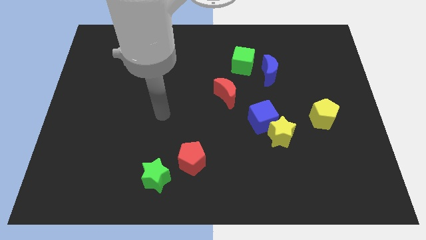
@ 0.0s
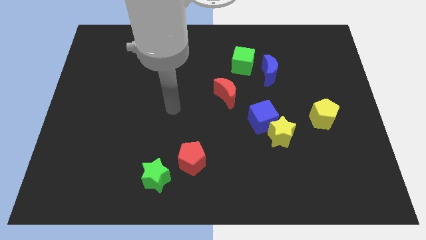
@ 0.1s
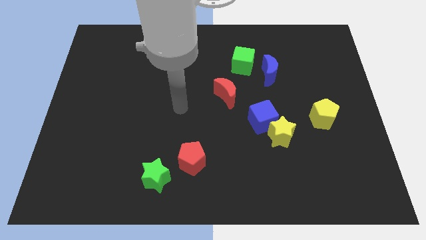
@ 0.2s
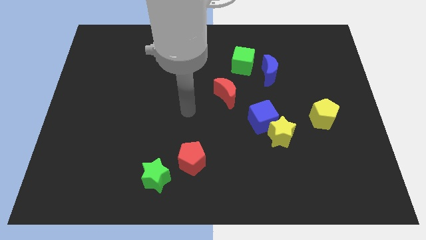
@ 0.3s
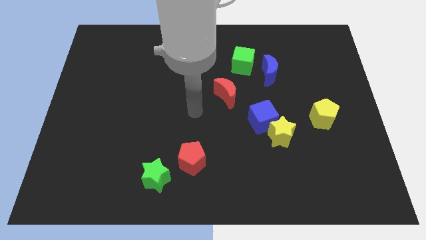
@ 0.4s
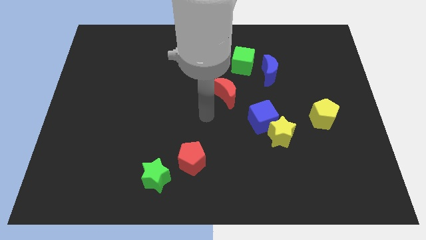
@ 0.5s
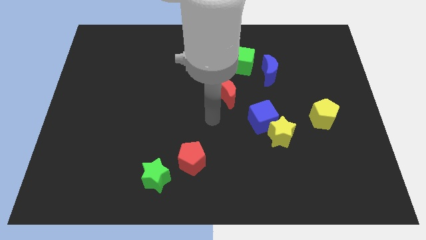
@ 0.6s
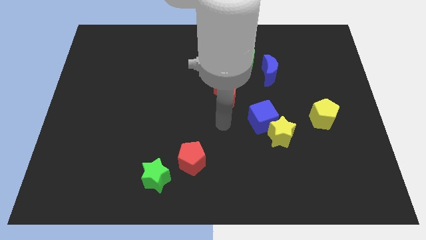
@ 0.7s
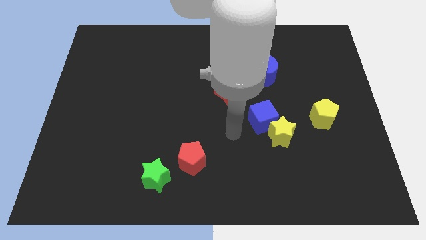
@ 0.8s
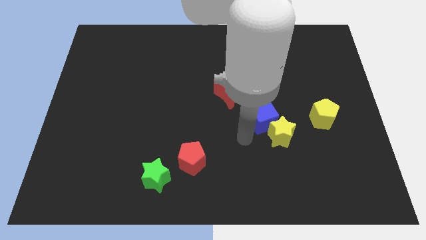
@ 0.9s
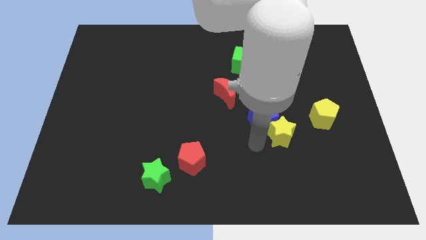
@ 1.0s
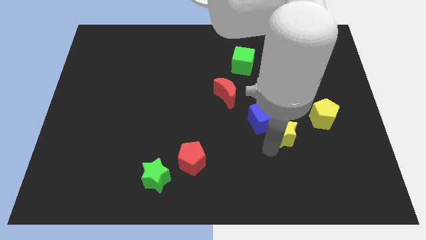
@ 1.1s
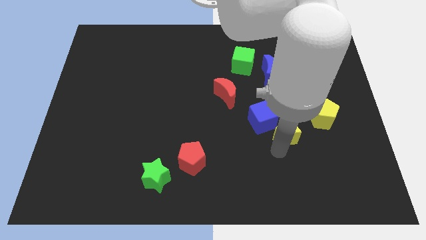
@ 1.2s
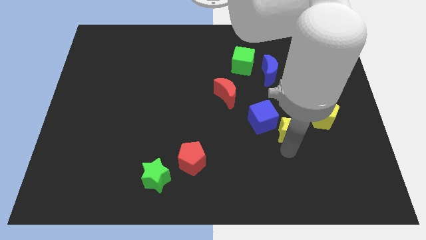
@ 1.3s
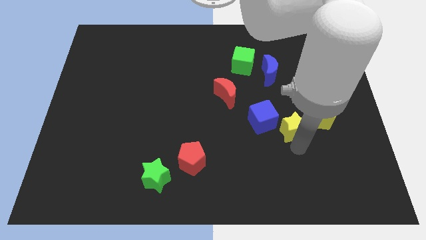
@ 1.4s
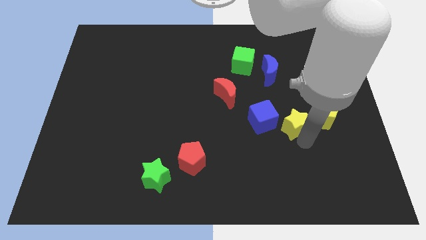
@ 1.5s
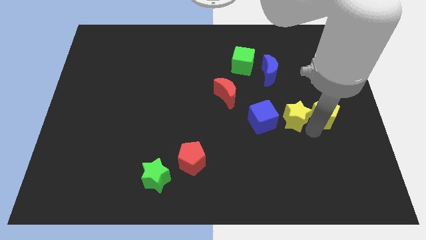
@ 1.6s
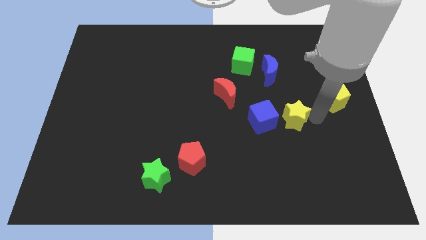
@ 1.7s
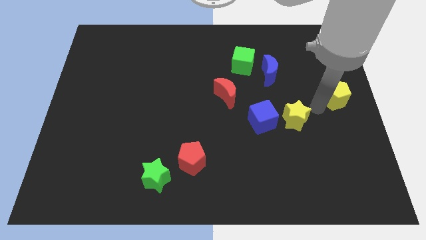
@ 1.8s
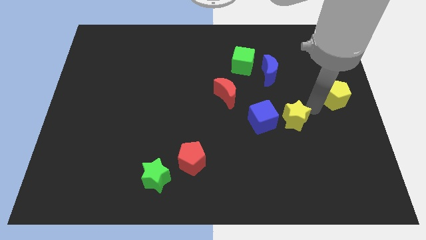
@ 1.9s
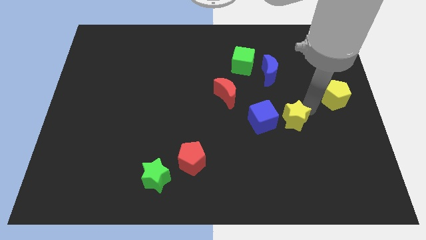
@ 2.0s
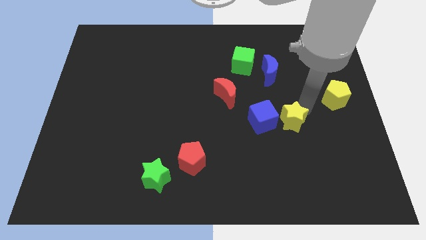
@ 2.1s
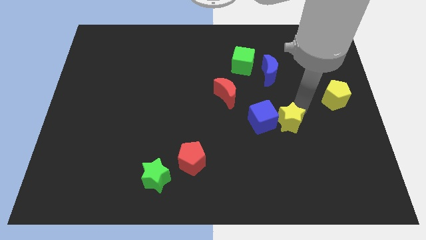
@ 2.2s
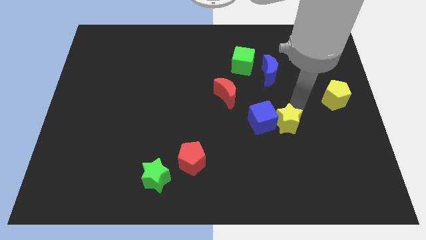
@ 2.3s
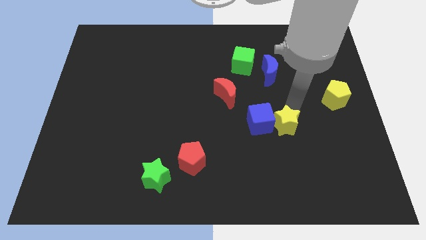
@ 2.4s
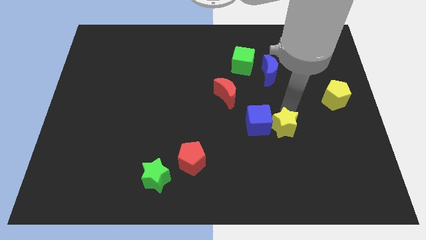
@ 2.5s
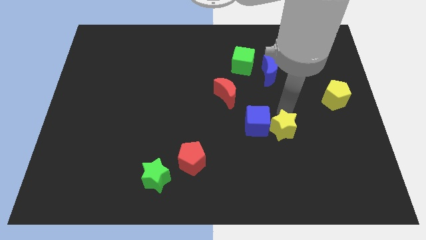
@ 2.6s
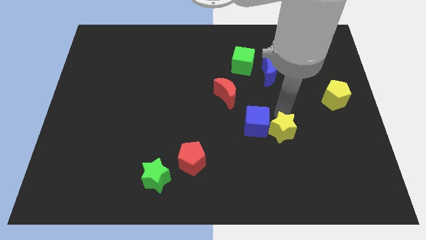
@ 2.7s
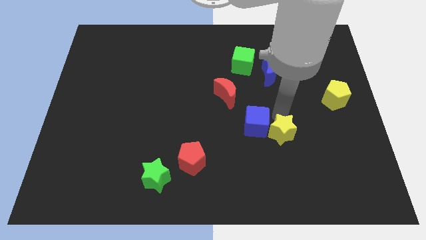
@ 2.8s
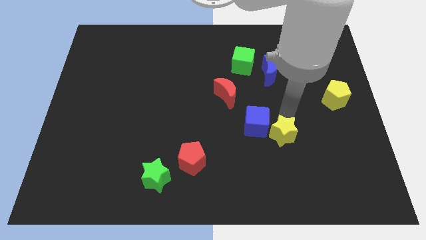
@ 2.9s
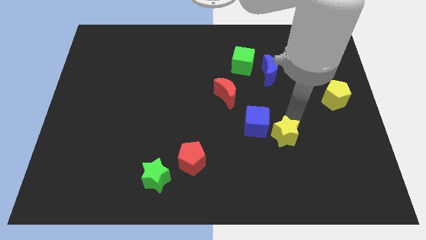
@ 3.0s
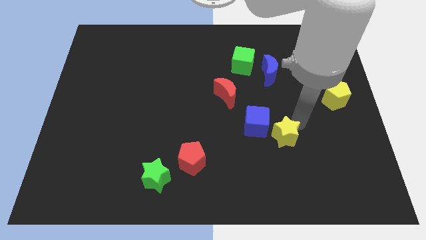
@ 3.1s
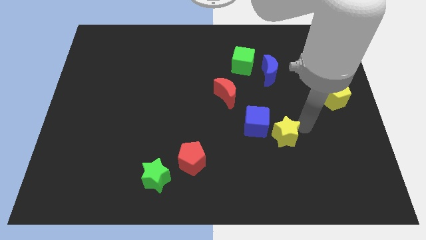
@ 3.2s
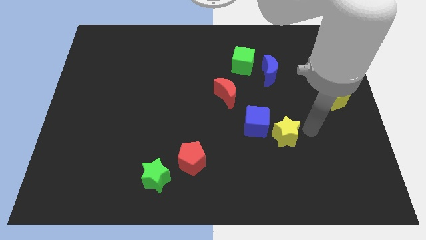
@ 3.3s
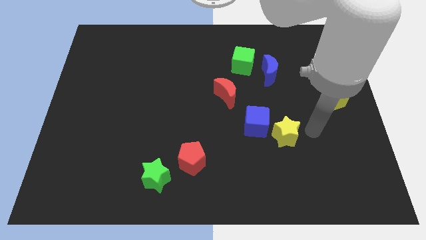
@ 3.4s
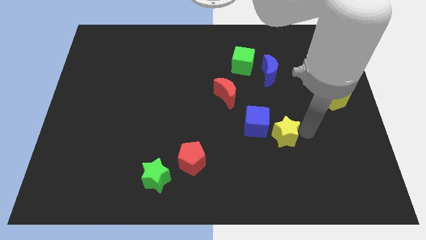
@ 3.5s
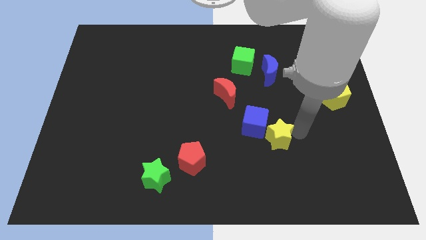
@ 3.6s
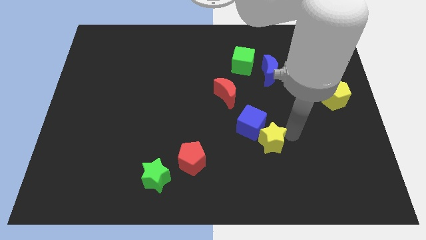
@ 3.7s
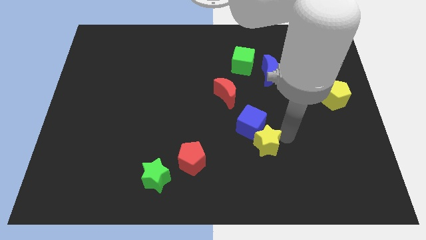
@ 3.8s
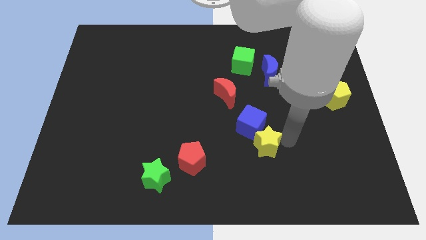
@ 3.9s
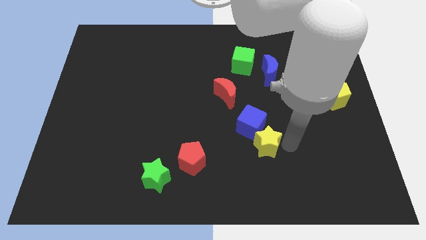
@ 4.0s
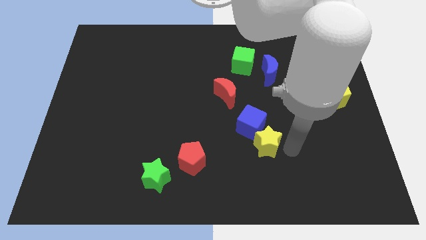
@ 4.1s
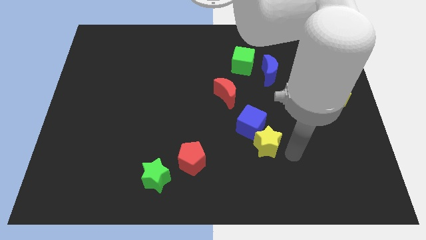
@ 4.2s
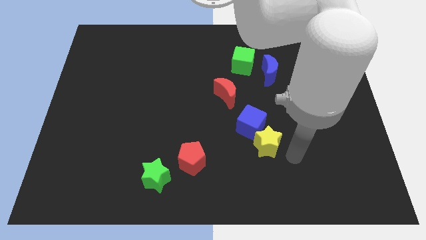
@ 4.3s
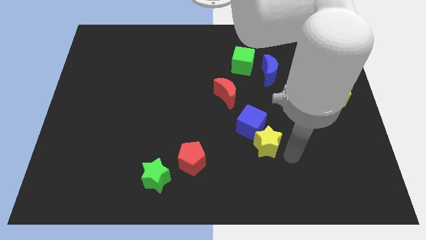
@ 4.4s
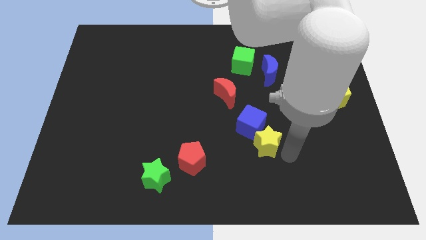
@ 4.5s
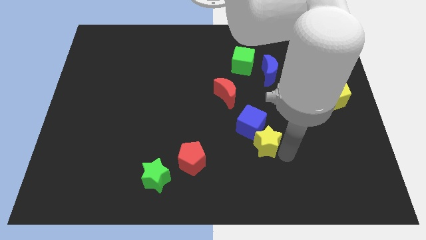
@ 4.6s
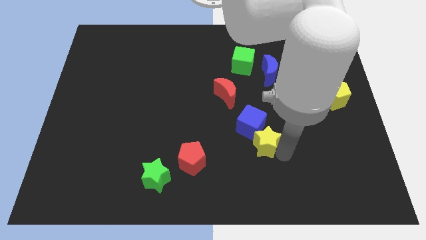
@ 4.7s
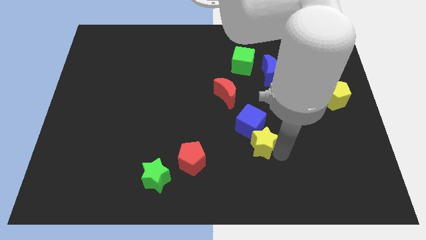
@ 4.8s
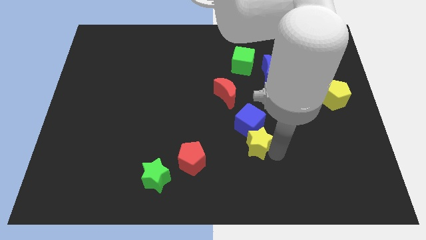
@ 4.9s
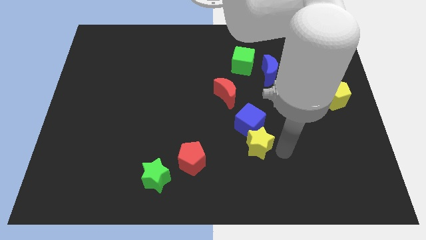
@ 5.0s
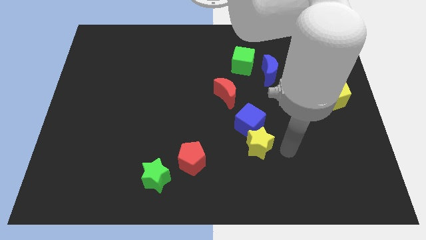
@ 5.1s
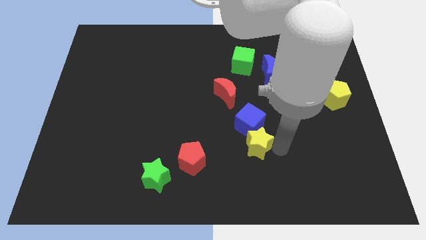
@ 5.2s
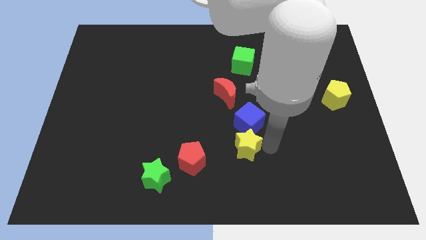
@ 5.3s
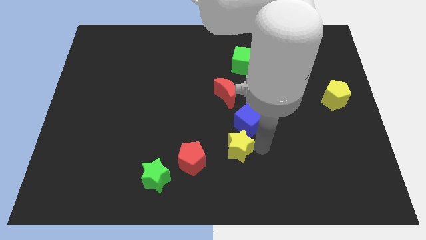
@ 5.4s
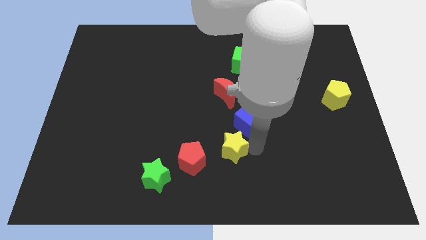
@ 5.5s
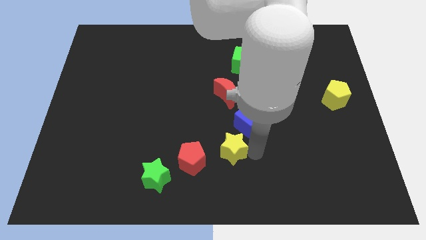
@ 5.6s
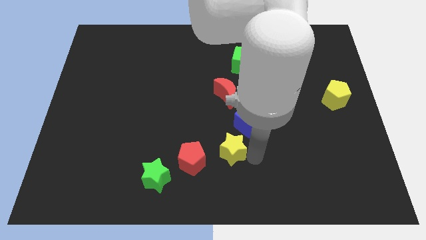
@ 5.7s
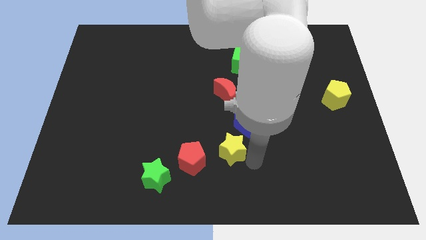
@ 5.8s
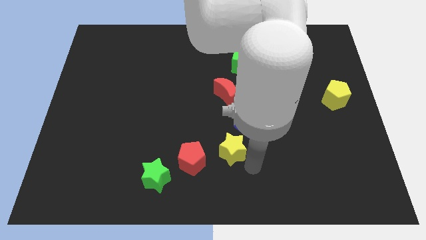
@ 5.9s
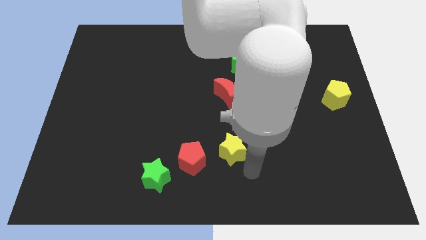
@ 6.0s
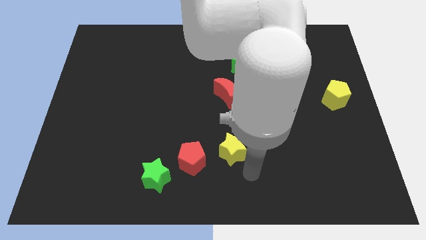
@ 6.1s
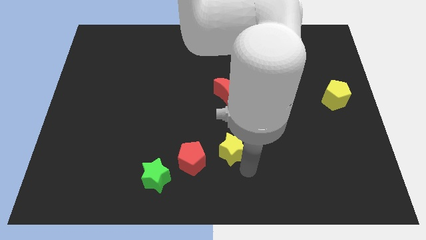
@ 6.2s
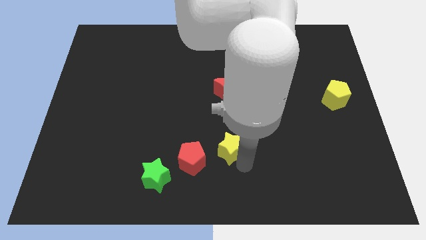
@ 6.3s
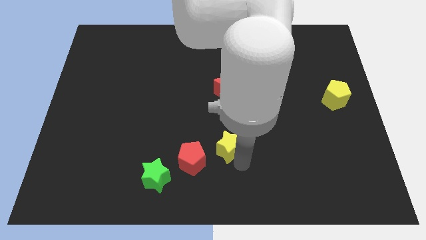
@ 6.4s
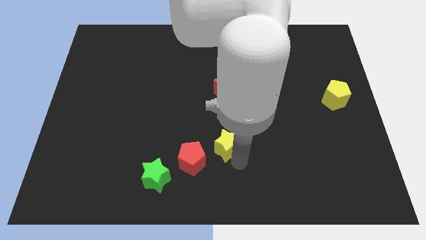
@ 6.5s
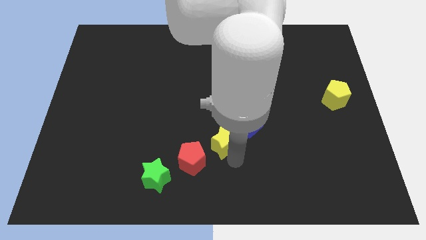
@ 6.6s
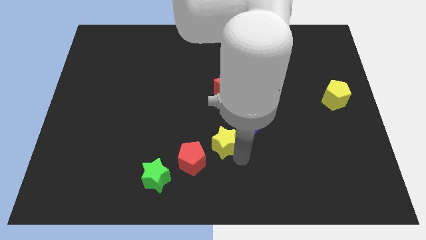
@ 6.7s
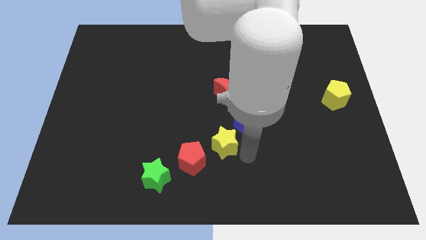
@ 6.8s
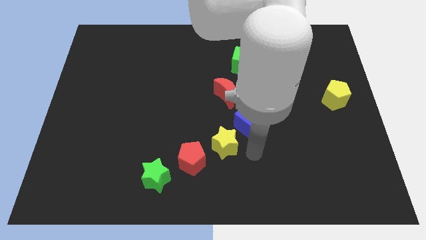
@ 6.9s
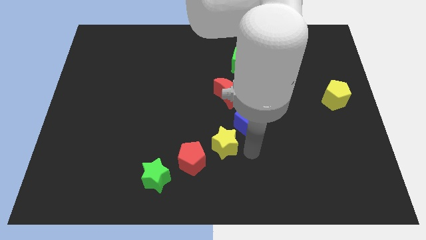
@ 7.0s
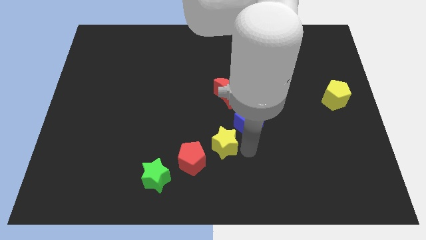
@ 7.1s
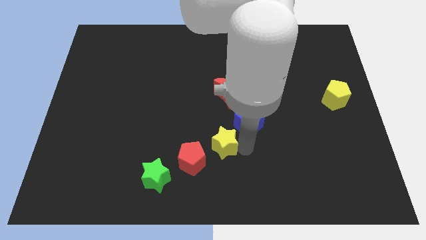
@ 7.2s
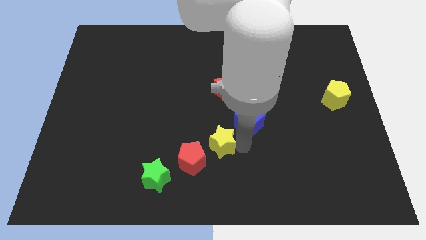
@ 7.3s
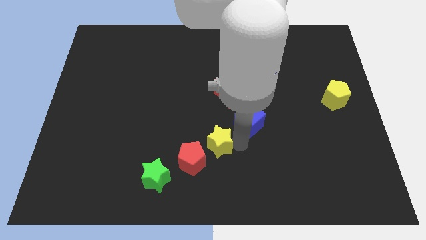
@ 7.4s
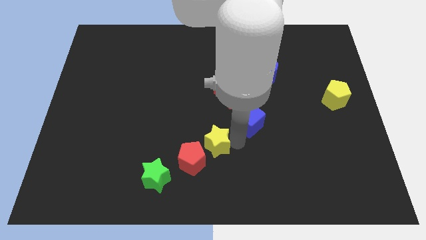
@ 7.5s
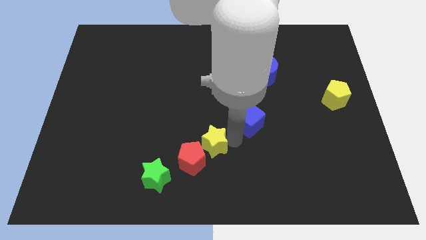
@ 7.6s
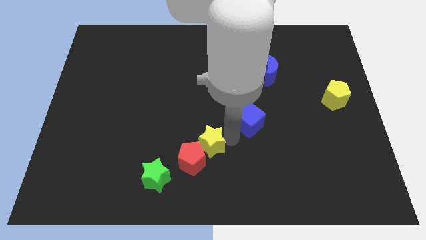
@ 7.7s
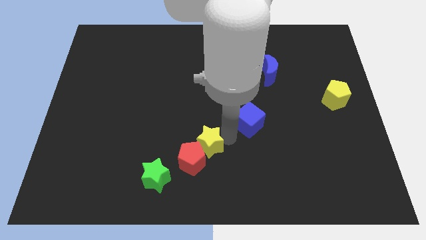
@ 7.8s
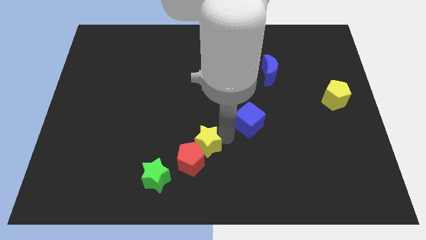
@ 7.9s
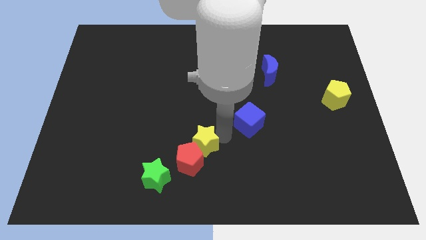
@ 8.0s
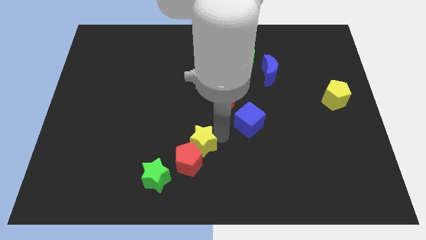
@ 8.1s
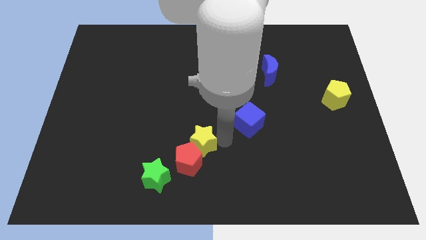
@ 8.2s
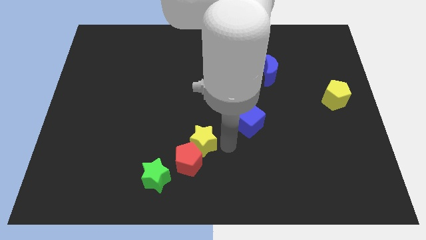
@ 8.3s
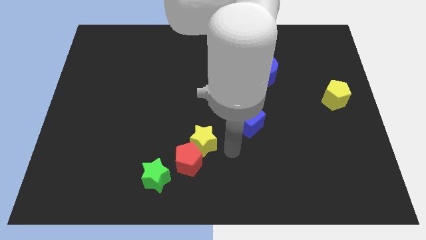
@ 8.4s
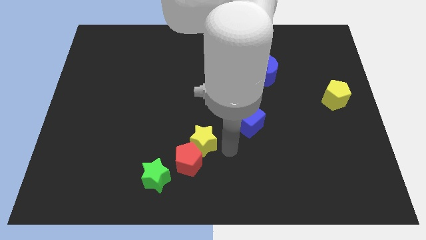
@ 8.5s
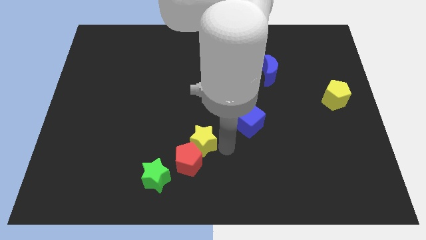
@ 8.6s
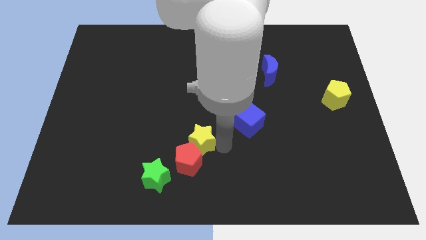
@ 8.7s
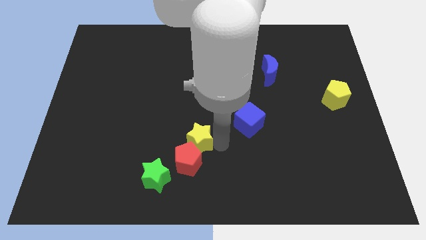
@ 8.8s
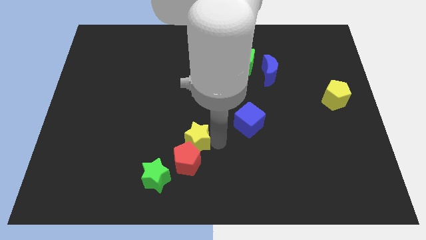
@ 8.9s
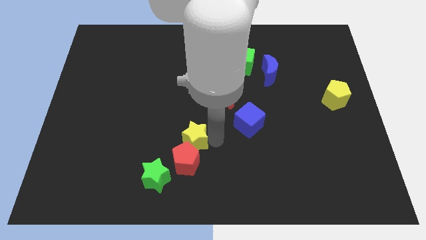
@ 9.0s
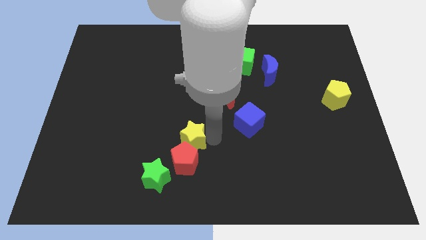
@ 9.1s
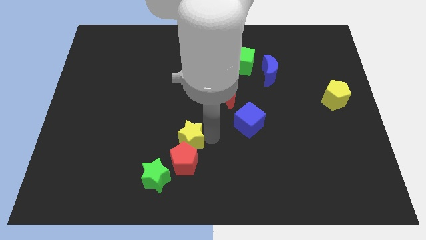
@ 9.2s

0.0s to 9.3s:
slide the yellow star left
